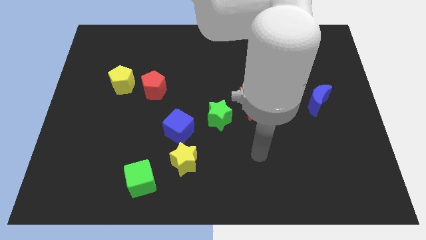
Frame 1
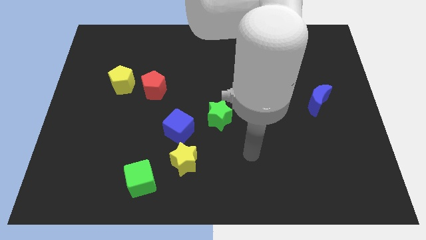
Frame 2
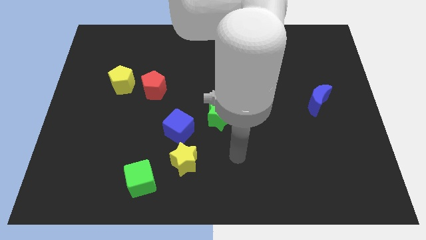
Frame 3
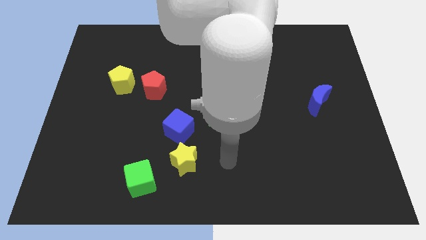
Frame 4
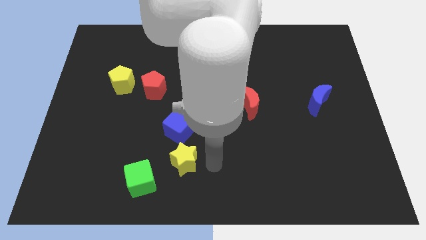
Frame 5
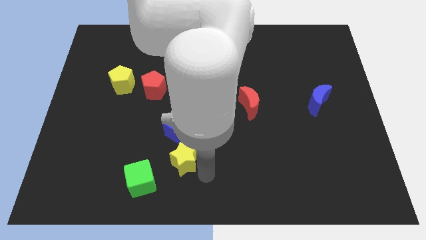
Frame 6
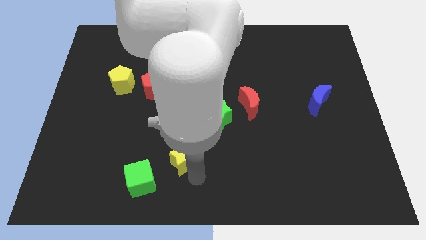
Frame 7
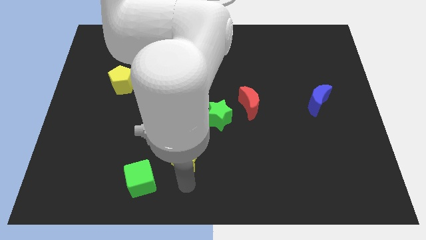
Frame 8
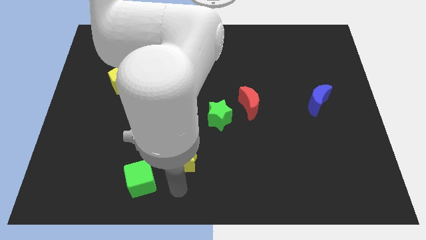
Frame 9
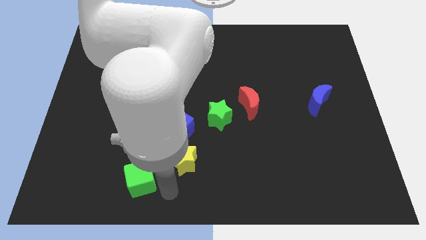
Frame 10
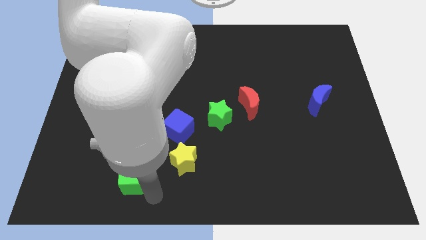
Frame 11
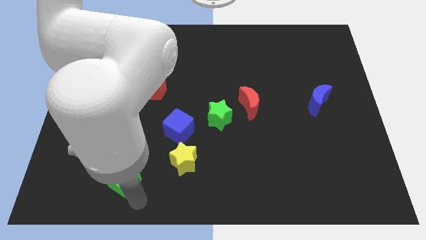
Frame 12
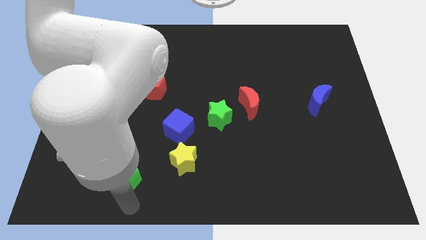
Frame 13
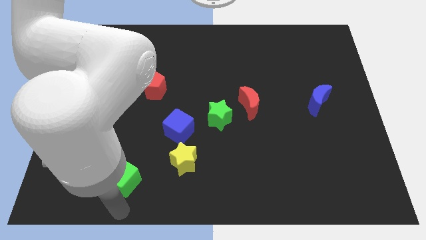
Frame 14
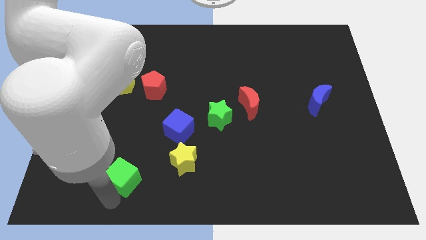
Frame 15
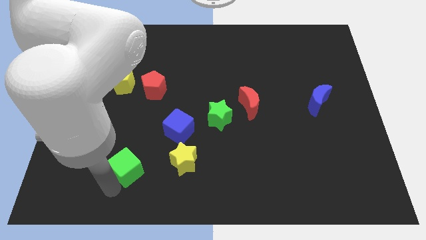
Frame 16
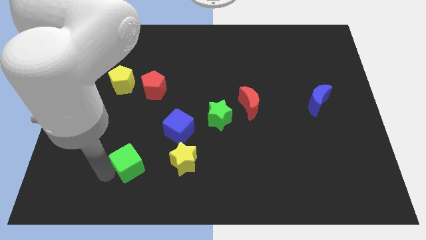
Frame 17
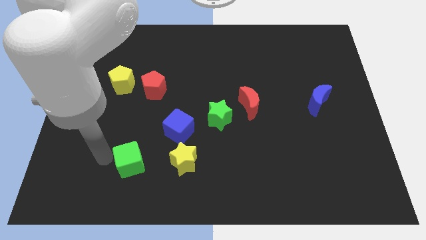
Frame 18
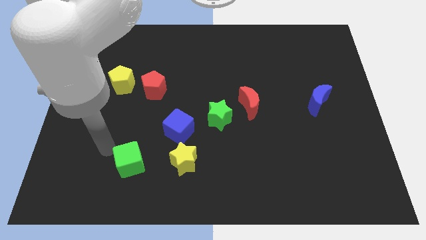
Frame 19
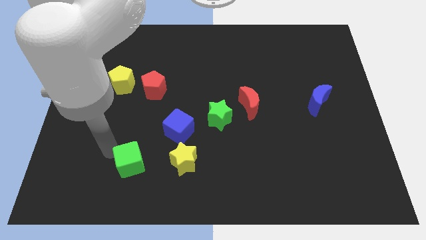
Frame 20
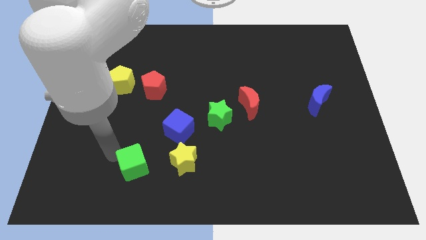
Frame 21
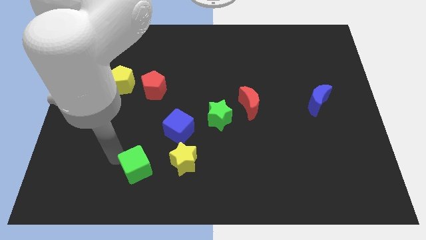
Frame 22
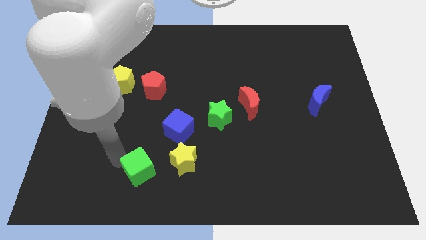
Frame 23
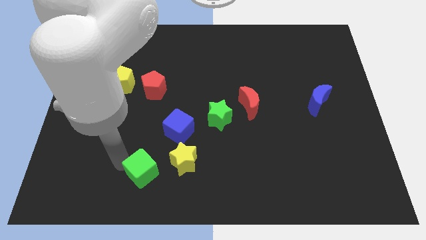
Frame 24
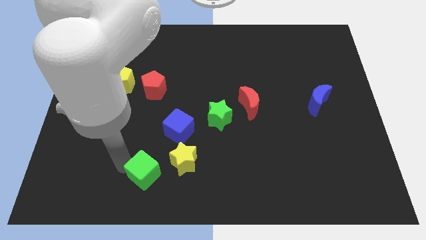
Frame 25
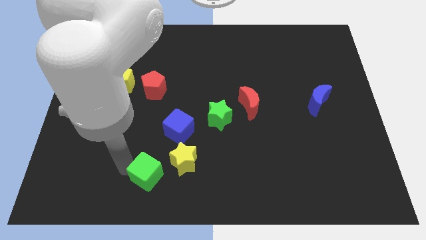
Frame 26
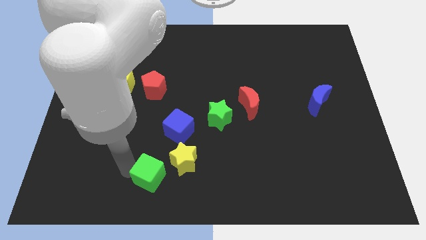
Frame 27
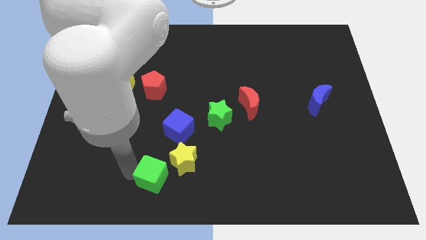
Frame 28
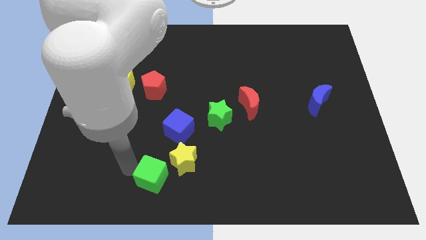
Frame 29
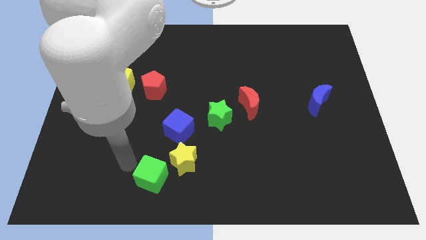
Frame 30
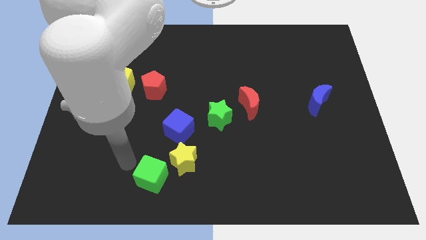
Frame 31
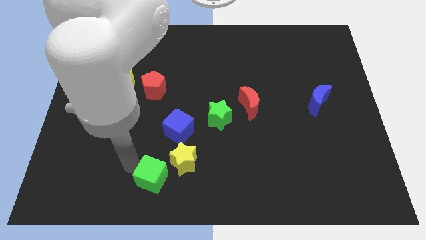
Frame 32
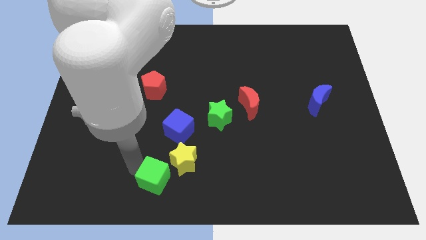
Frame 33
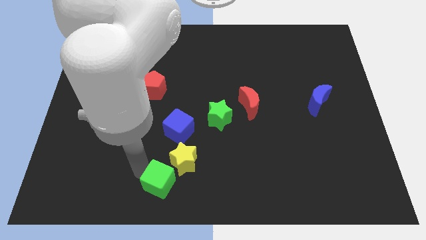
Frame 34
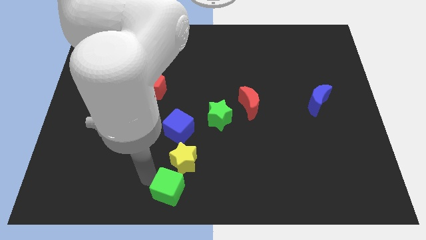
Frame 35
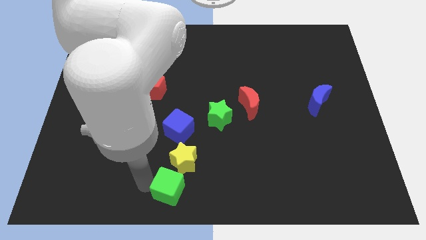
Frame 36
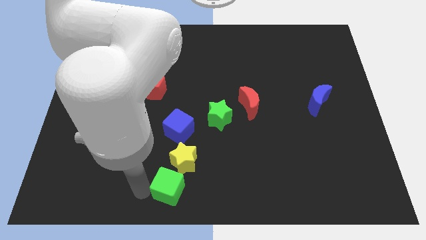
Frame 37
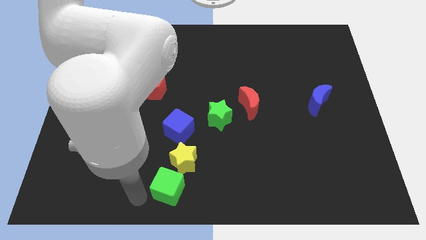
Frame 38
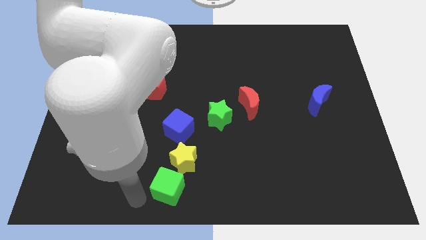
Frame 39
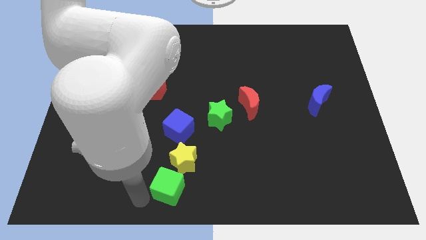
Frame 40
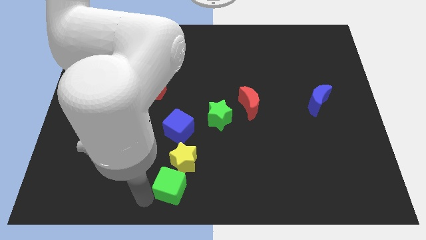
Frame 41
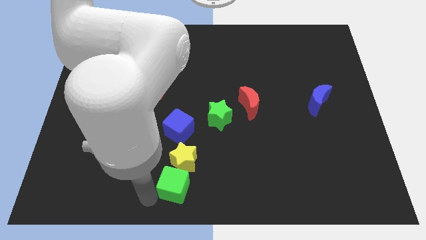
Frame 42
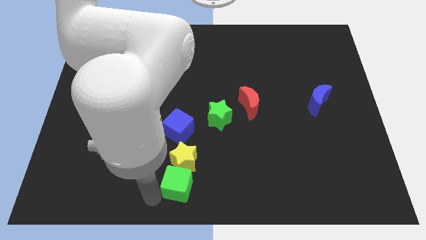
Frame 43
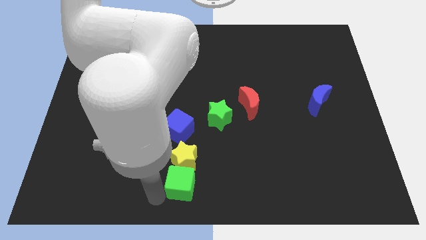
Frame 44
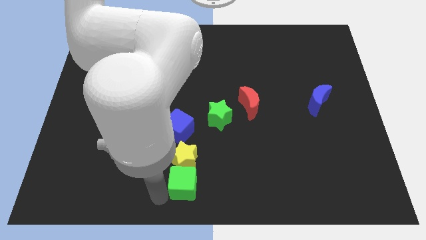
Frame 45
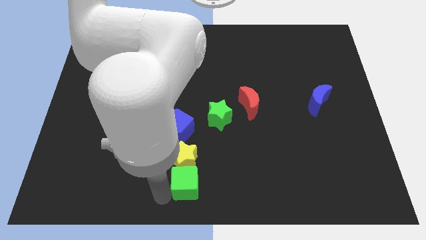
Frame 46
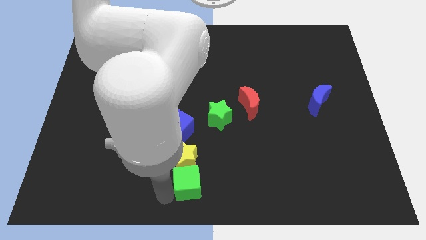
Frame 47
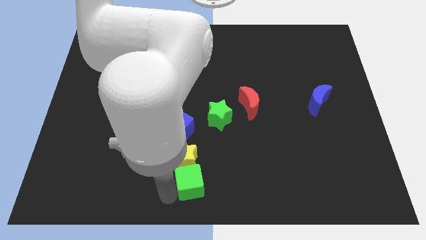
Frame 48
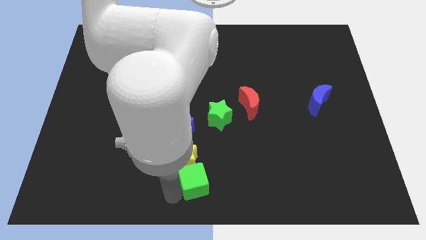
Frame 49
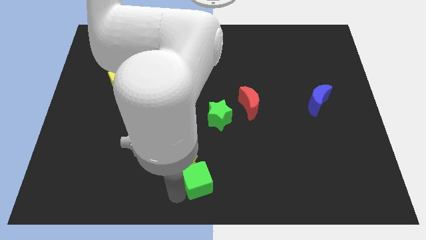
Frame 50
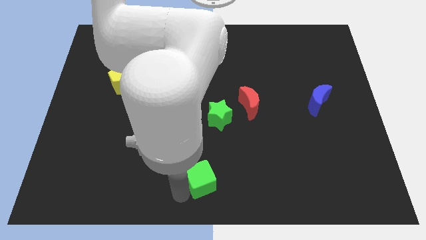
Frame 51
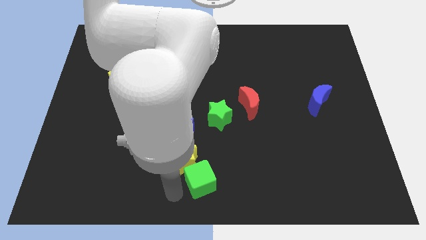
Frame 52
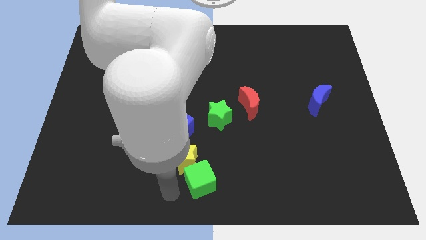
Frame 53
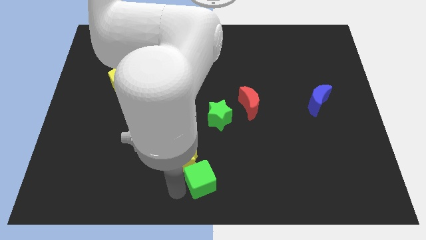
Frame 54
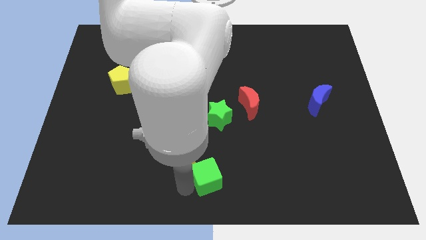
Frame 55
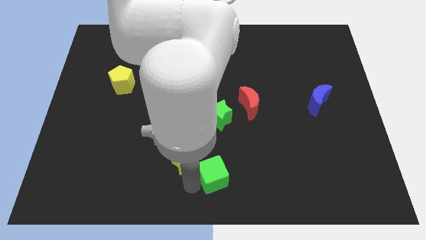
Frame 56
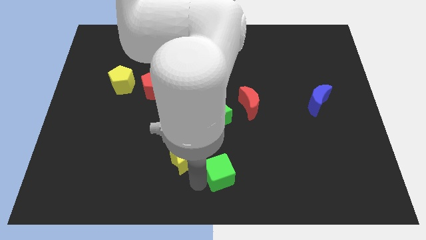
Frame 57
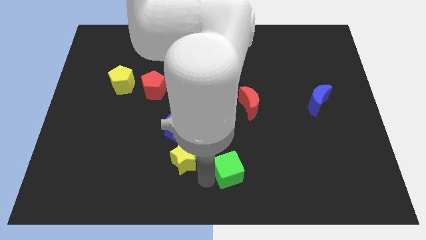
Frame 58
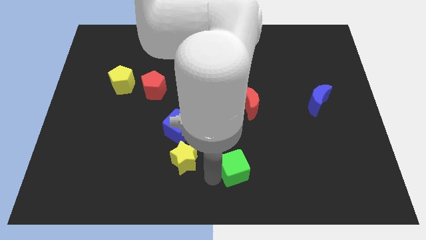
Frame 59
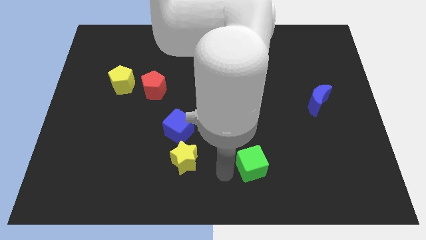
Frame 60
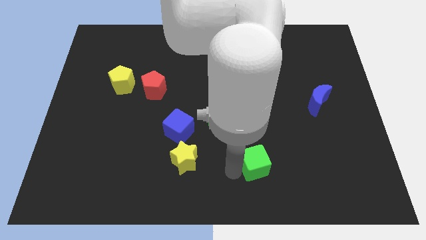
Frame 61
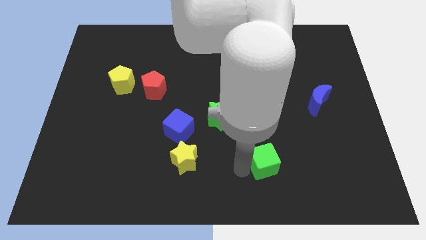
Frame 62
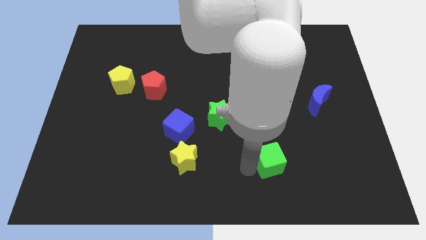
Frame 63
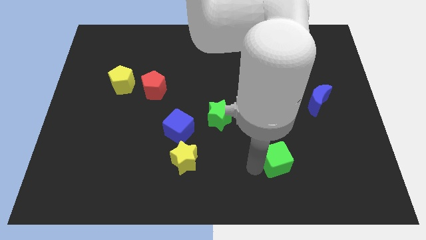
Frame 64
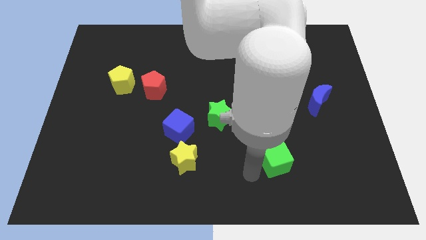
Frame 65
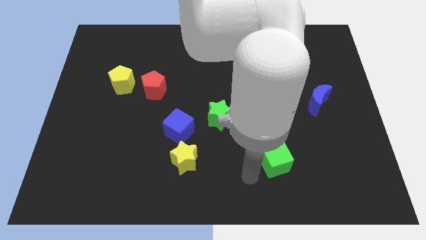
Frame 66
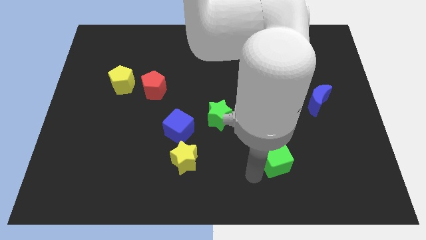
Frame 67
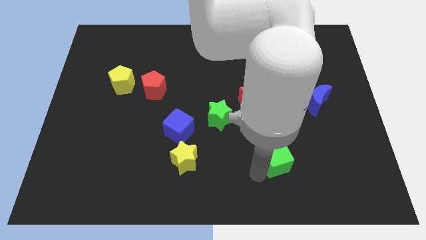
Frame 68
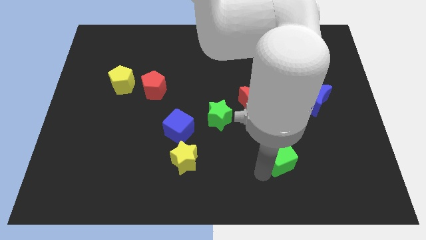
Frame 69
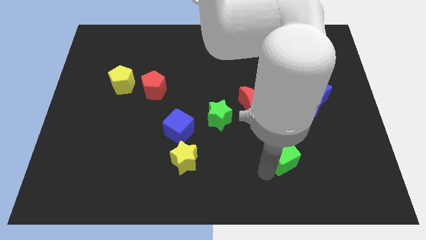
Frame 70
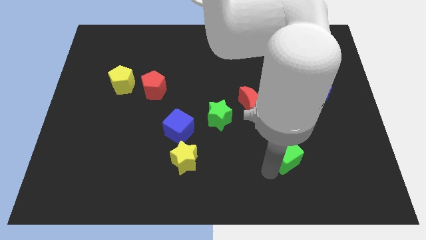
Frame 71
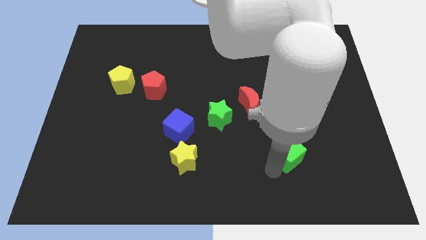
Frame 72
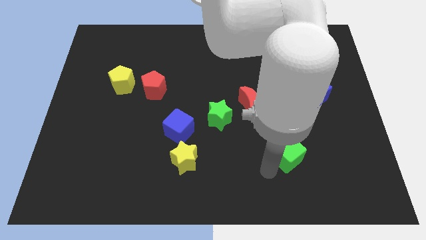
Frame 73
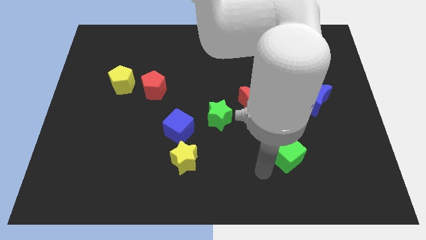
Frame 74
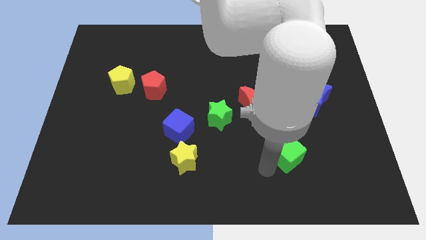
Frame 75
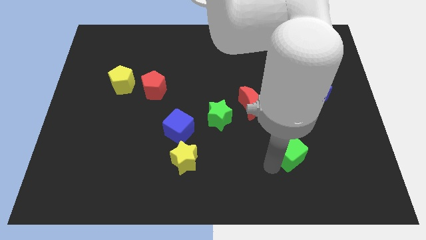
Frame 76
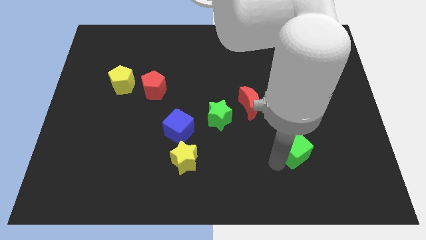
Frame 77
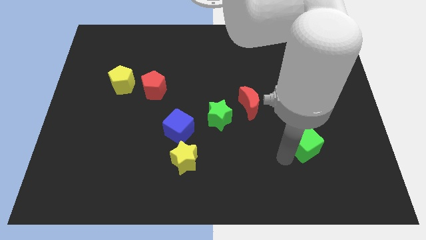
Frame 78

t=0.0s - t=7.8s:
push the green cube below the blue moon
